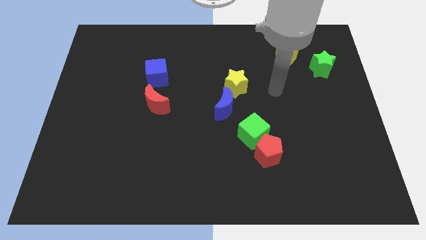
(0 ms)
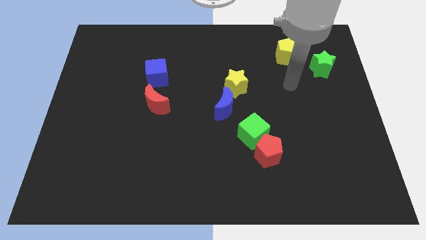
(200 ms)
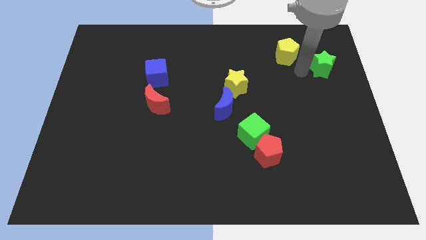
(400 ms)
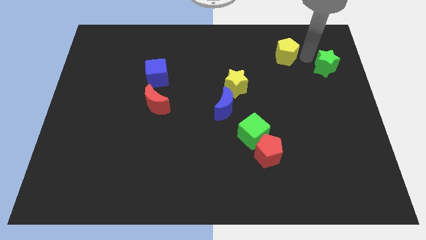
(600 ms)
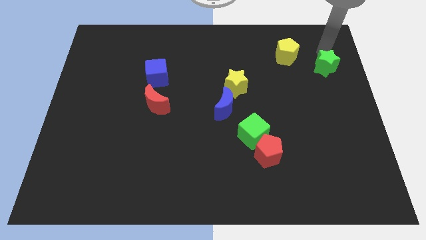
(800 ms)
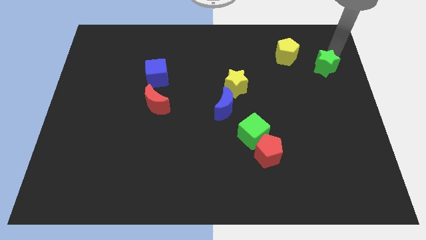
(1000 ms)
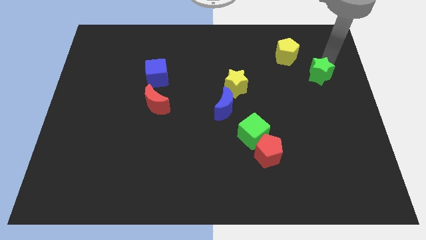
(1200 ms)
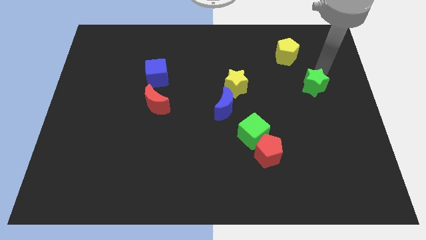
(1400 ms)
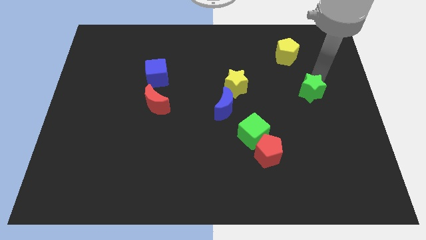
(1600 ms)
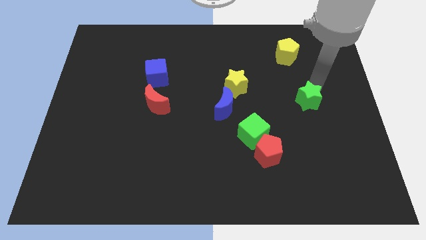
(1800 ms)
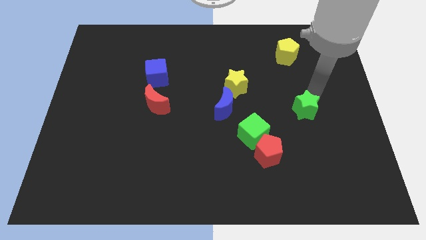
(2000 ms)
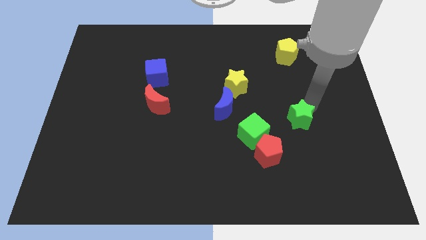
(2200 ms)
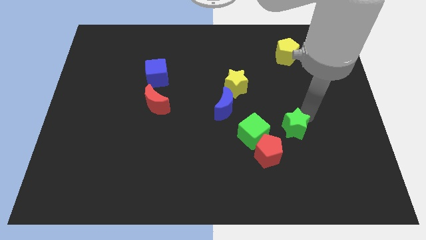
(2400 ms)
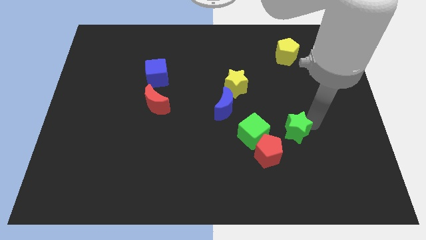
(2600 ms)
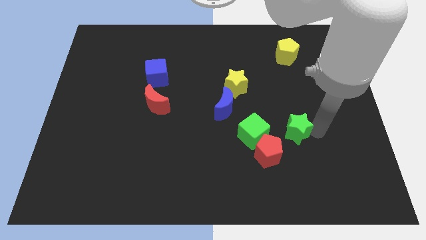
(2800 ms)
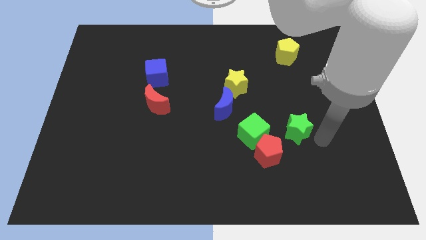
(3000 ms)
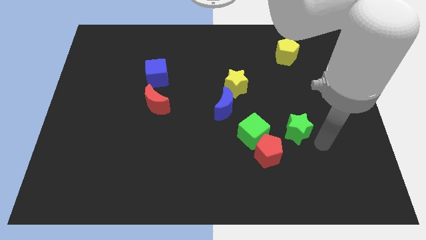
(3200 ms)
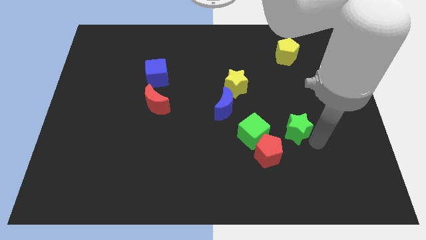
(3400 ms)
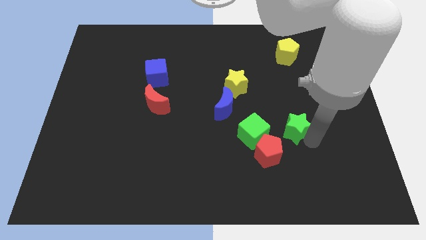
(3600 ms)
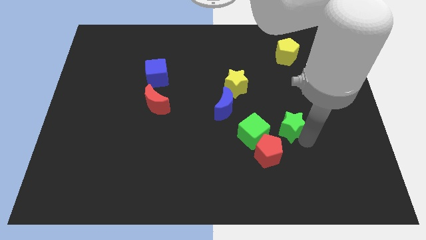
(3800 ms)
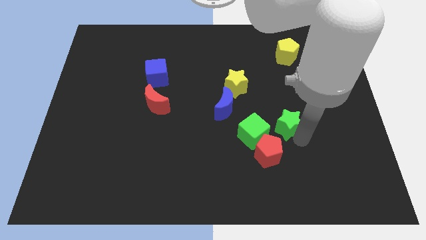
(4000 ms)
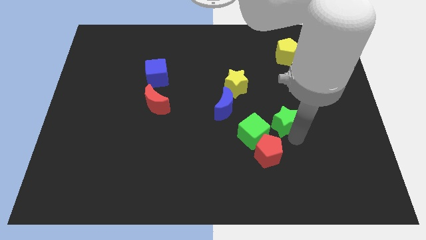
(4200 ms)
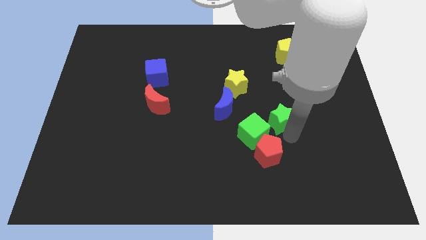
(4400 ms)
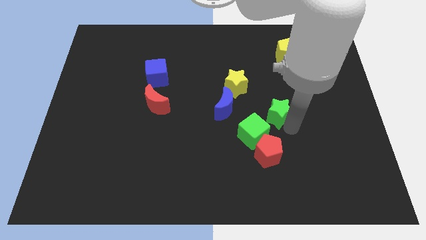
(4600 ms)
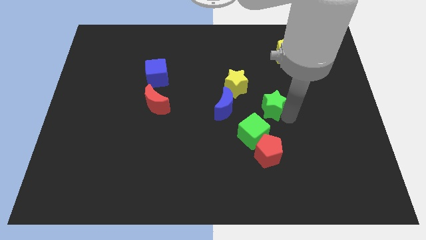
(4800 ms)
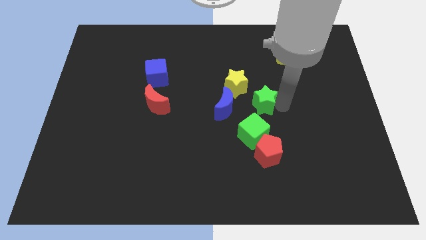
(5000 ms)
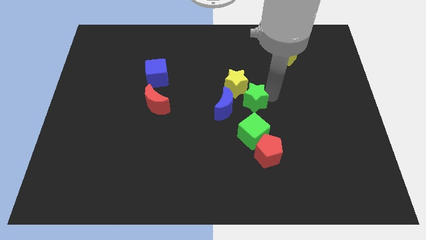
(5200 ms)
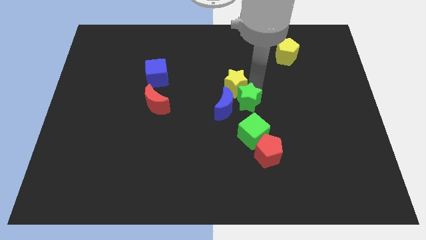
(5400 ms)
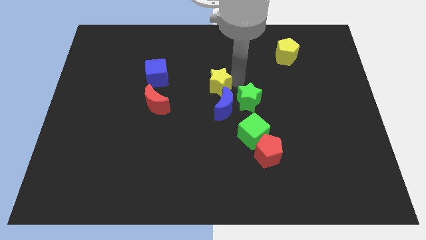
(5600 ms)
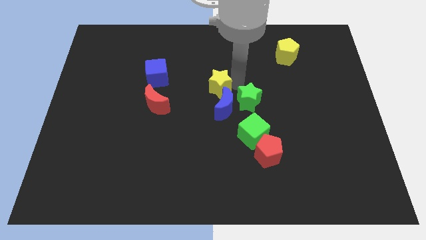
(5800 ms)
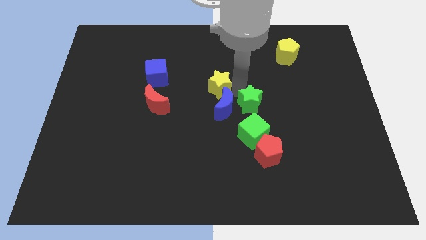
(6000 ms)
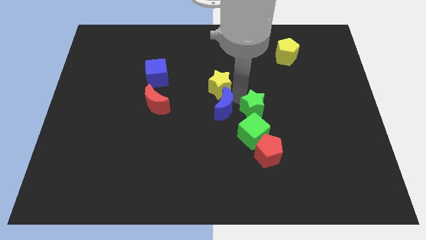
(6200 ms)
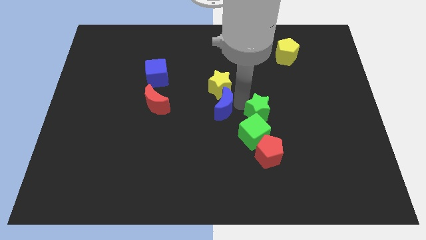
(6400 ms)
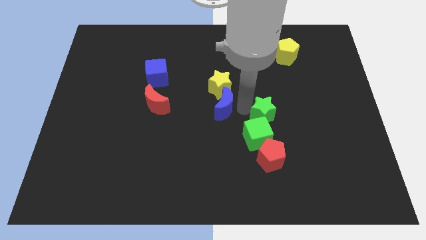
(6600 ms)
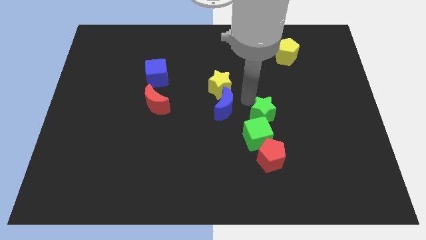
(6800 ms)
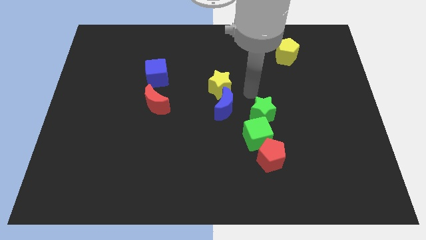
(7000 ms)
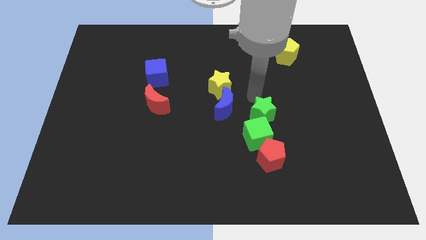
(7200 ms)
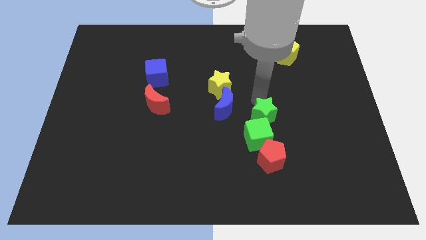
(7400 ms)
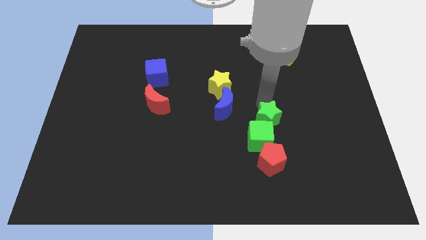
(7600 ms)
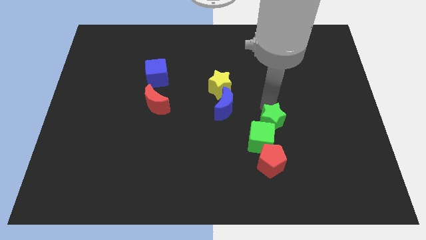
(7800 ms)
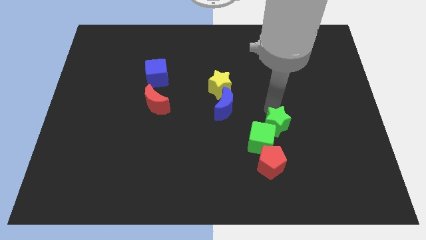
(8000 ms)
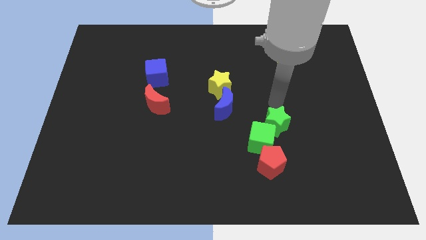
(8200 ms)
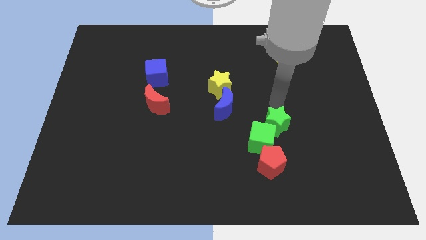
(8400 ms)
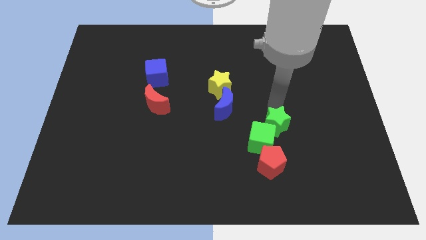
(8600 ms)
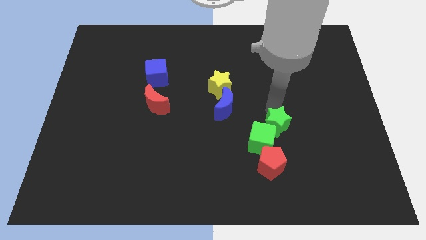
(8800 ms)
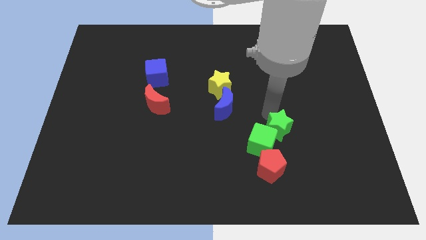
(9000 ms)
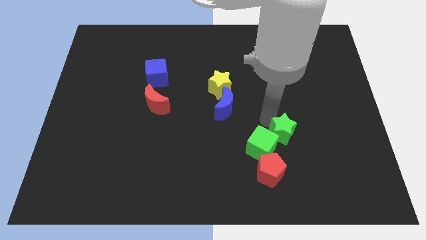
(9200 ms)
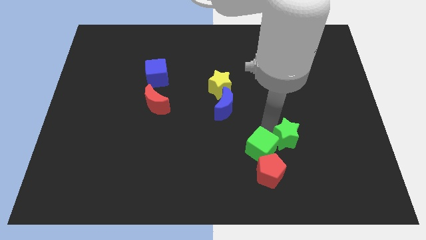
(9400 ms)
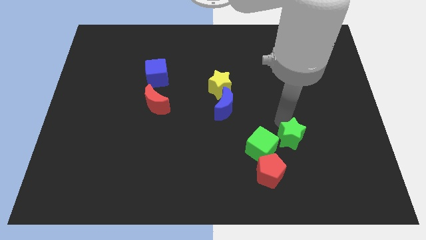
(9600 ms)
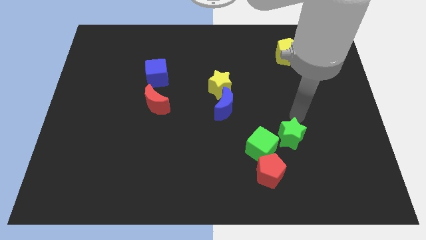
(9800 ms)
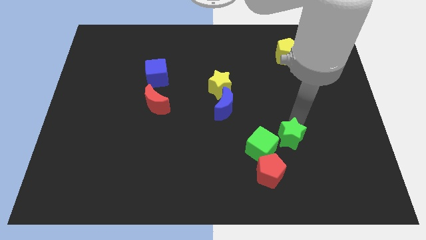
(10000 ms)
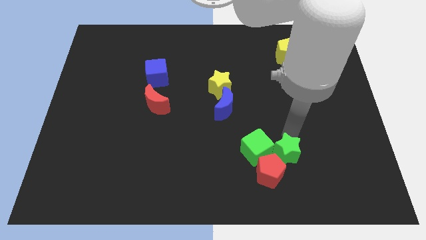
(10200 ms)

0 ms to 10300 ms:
put the green star to the red pentagon

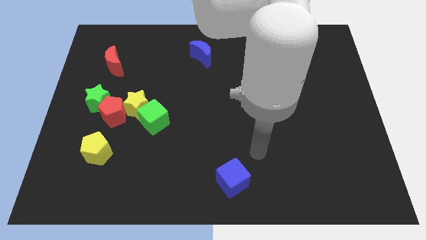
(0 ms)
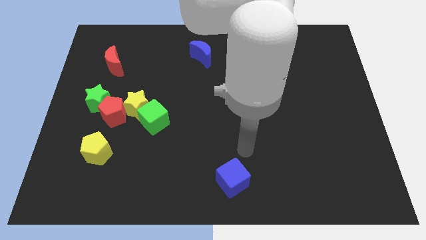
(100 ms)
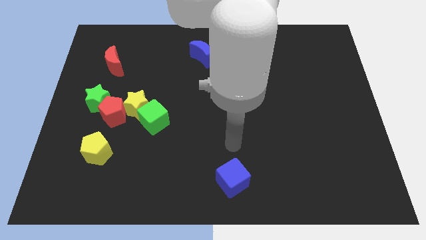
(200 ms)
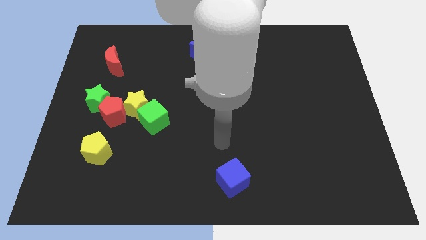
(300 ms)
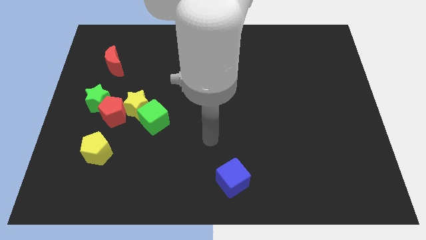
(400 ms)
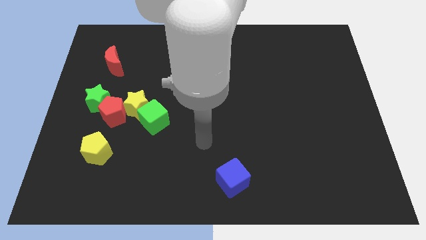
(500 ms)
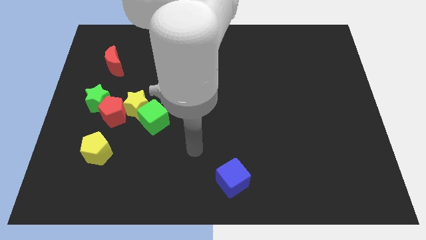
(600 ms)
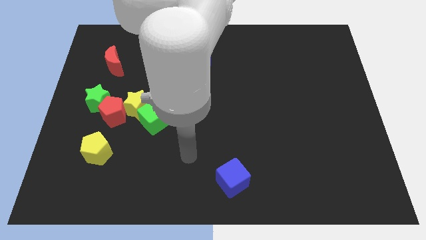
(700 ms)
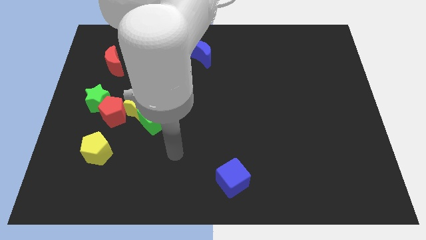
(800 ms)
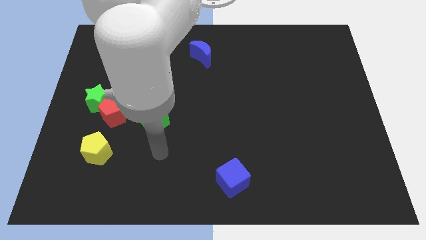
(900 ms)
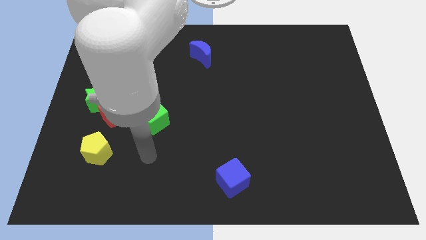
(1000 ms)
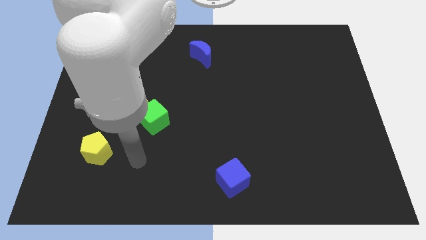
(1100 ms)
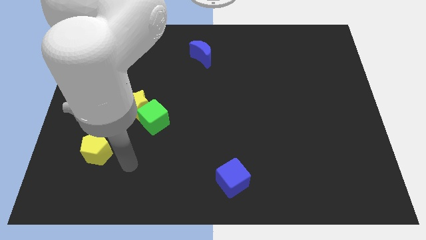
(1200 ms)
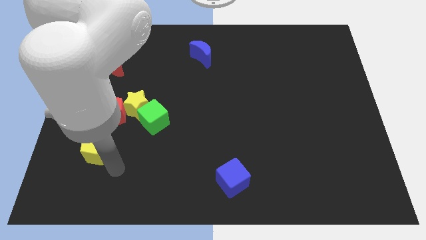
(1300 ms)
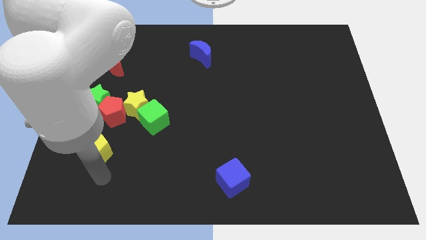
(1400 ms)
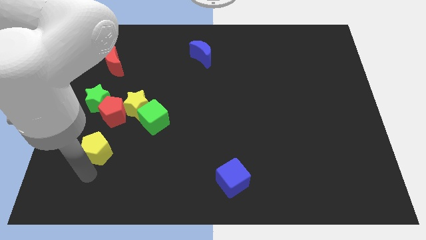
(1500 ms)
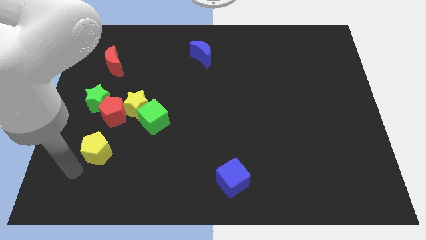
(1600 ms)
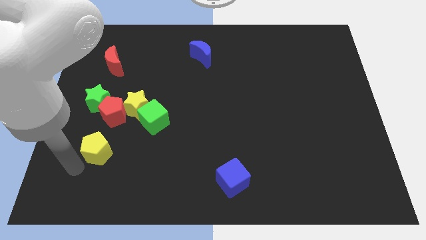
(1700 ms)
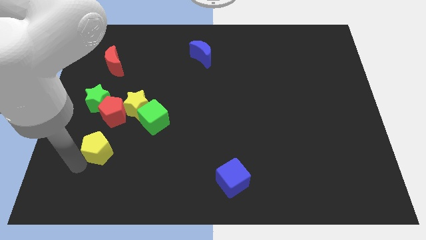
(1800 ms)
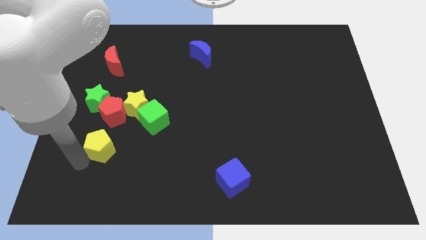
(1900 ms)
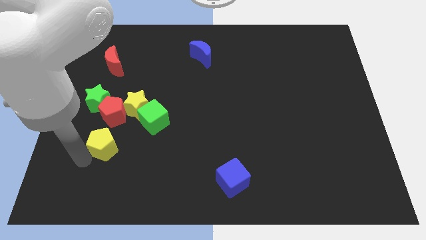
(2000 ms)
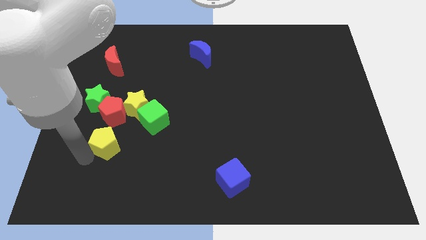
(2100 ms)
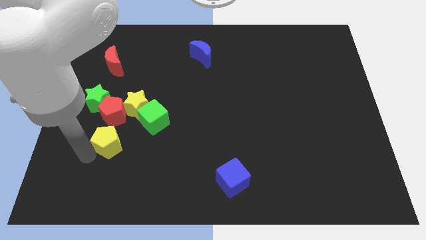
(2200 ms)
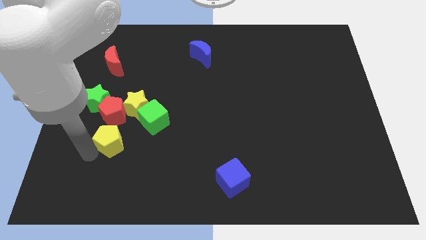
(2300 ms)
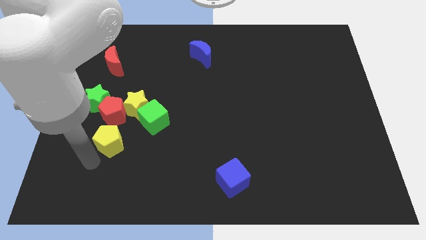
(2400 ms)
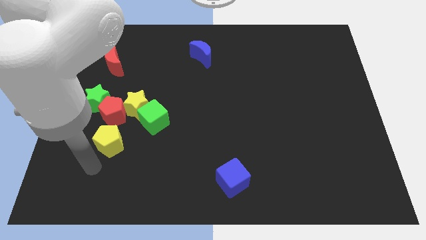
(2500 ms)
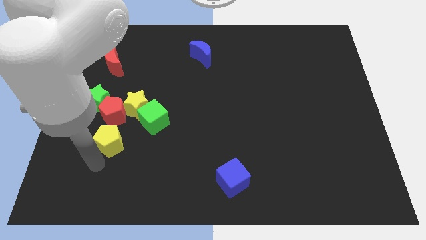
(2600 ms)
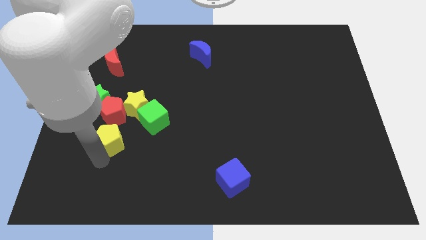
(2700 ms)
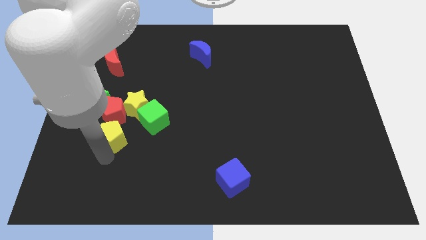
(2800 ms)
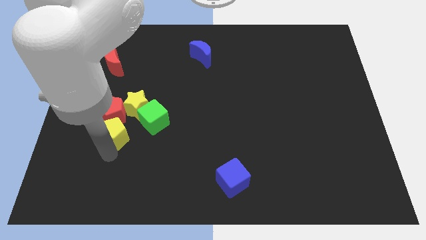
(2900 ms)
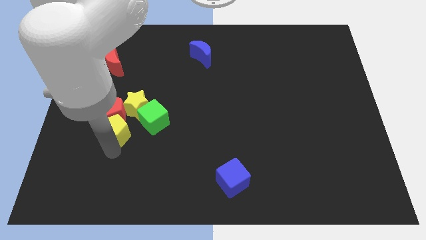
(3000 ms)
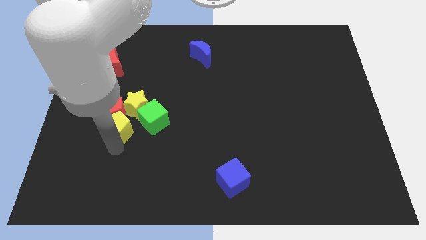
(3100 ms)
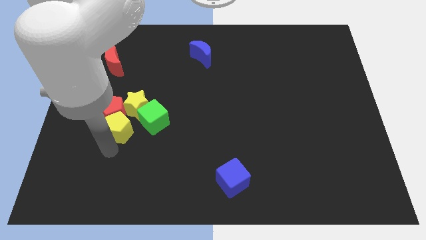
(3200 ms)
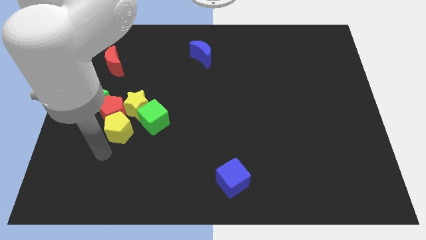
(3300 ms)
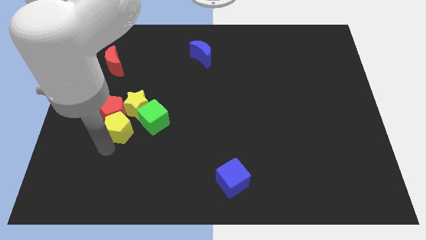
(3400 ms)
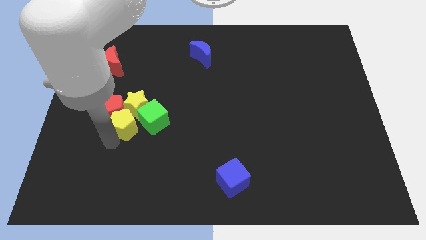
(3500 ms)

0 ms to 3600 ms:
push the yellow pentagon to the yellow star
